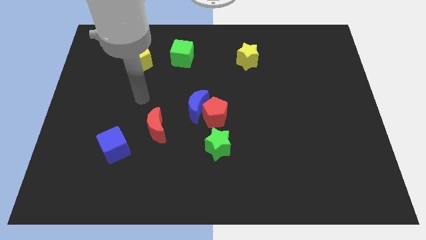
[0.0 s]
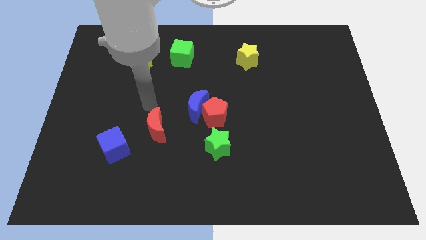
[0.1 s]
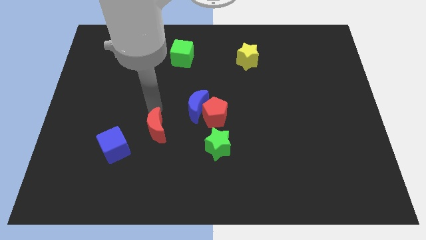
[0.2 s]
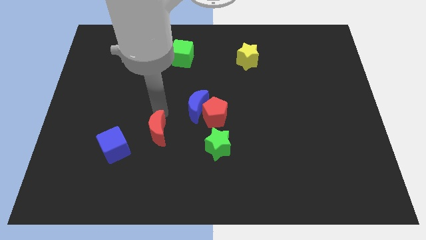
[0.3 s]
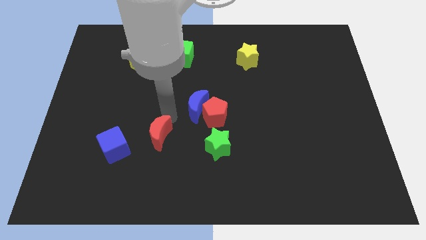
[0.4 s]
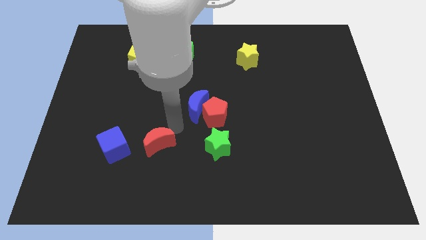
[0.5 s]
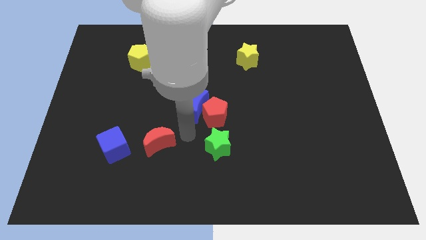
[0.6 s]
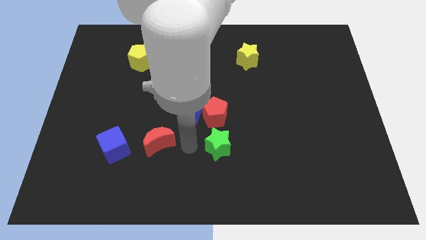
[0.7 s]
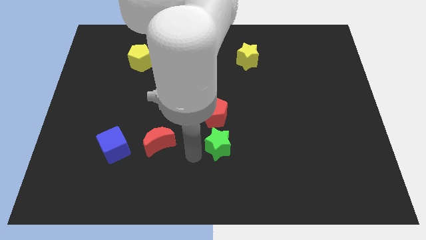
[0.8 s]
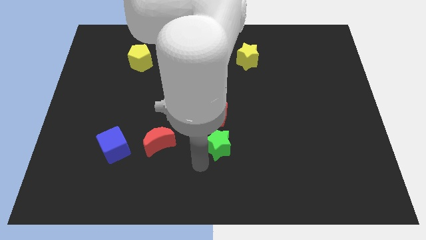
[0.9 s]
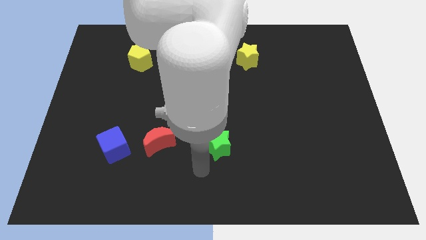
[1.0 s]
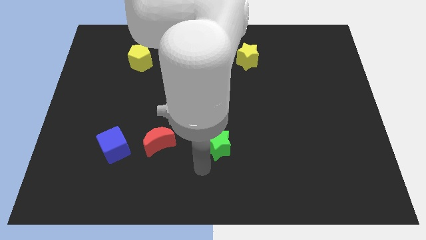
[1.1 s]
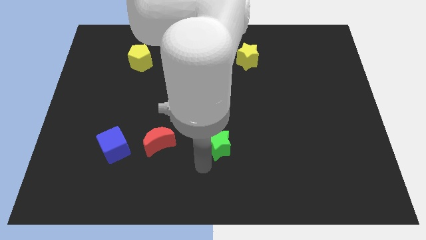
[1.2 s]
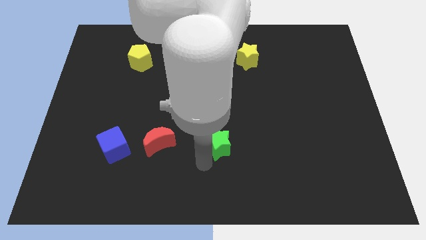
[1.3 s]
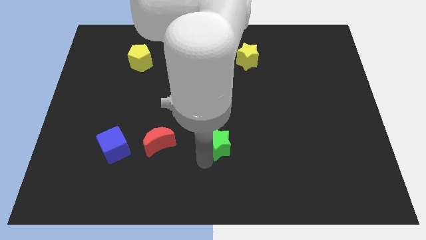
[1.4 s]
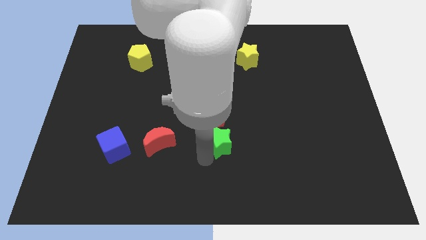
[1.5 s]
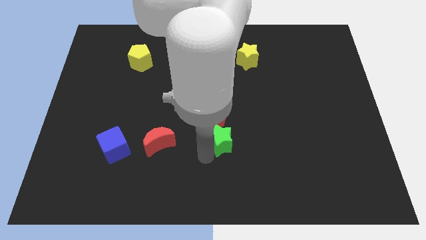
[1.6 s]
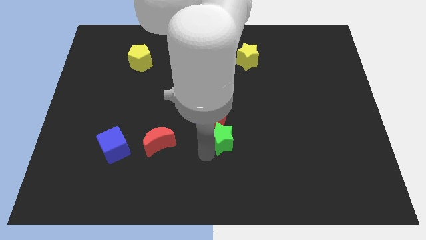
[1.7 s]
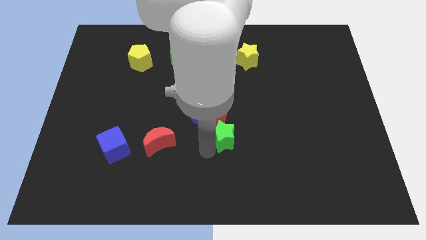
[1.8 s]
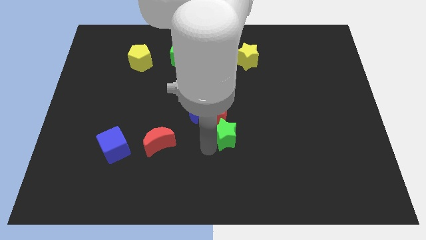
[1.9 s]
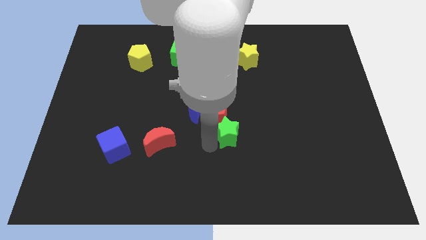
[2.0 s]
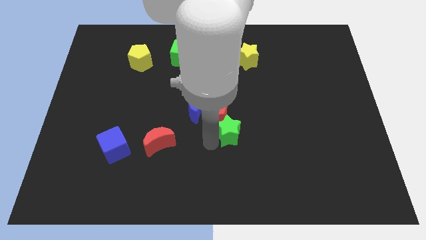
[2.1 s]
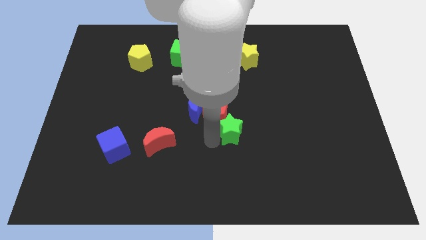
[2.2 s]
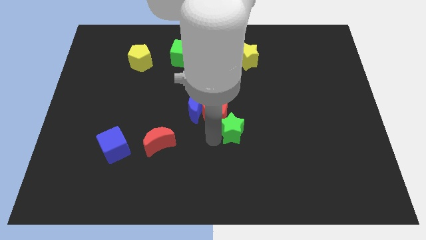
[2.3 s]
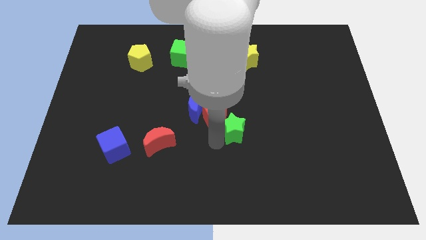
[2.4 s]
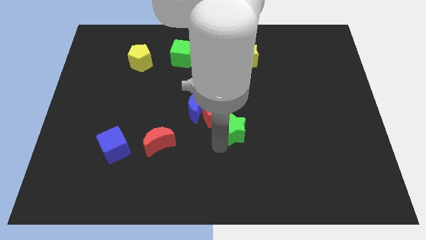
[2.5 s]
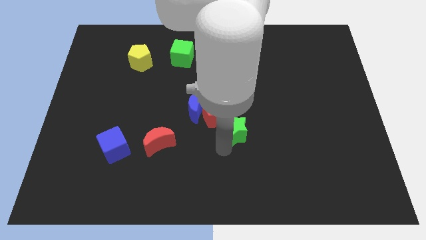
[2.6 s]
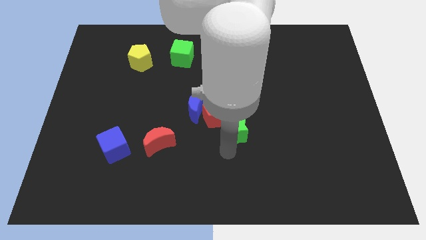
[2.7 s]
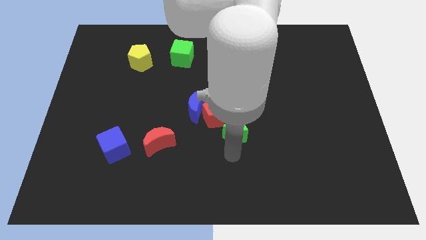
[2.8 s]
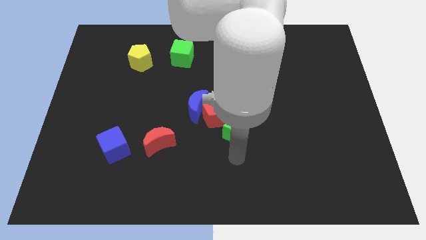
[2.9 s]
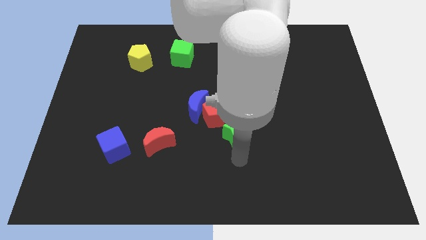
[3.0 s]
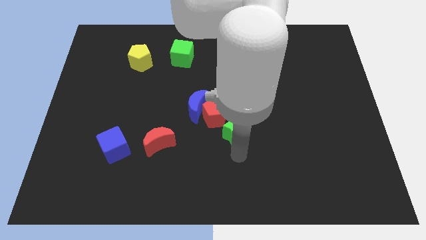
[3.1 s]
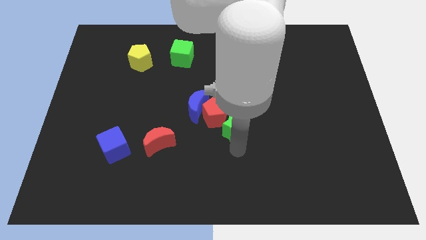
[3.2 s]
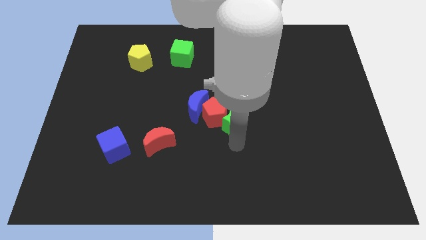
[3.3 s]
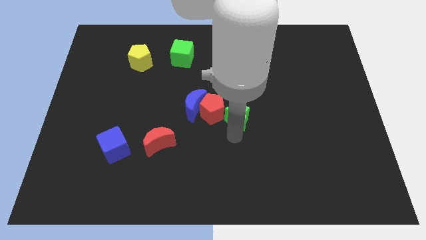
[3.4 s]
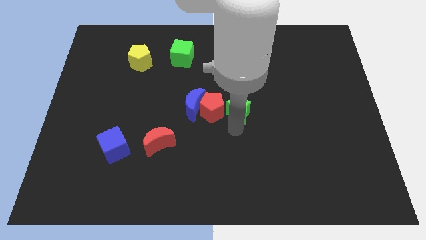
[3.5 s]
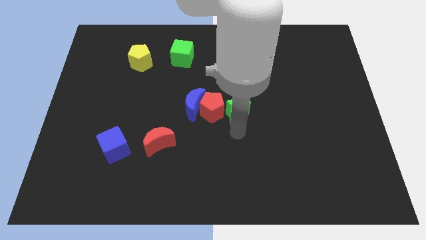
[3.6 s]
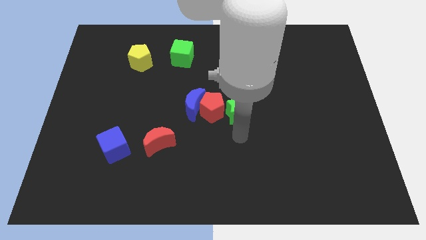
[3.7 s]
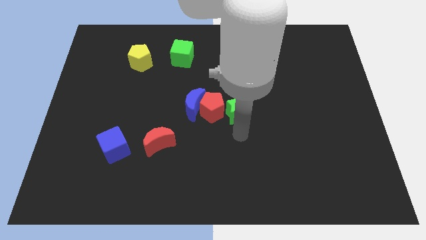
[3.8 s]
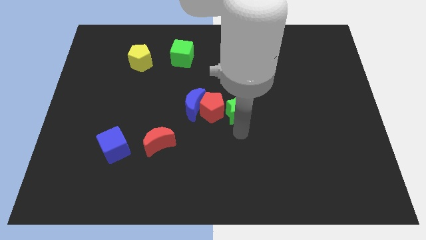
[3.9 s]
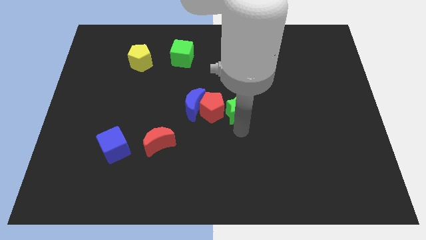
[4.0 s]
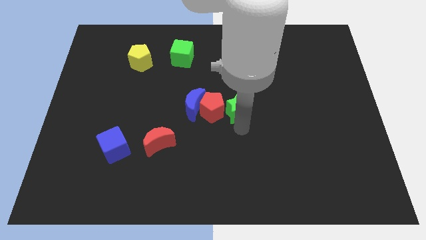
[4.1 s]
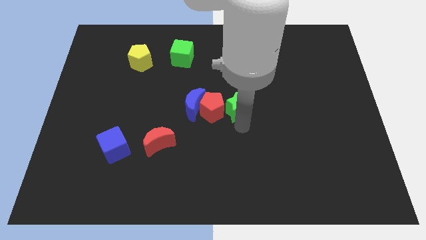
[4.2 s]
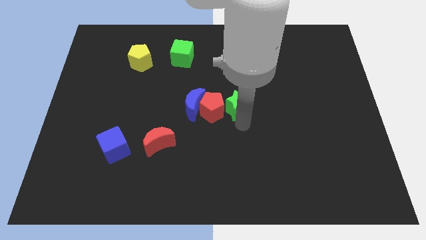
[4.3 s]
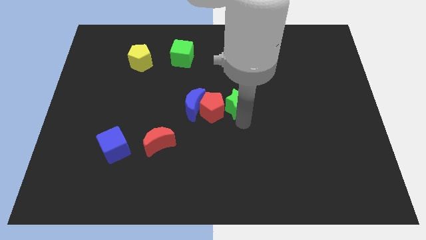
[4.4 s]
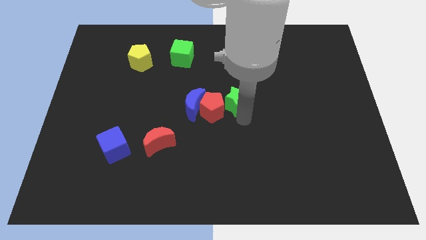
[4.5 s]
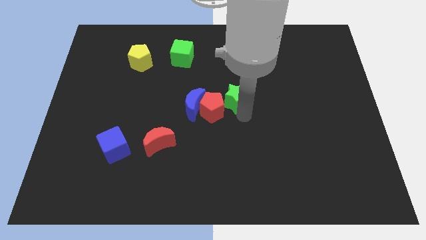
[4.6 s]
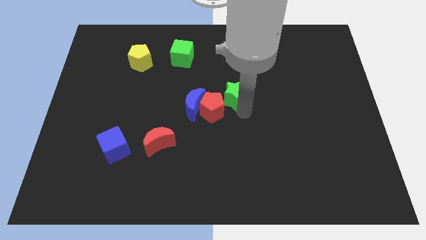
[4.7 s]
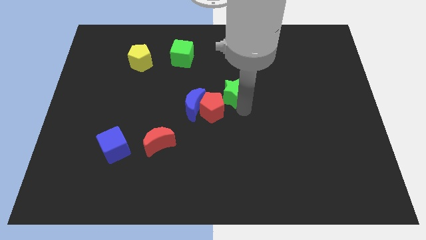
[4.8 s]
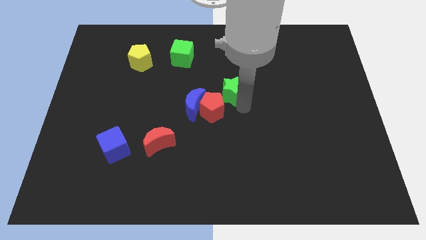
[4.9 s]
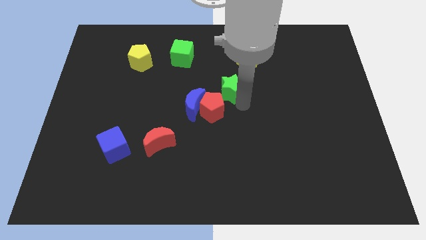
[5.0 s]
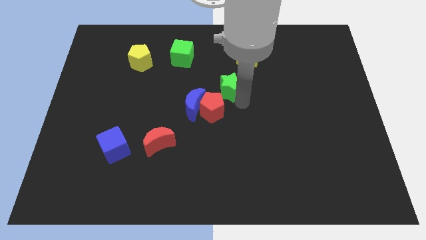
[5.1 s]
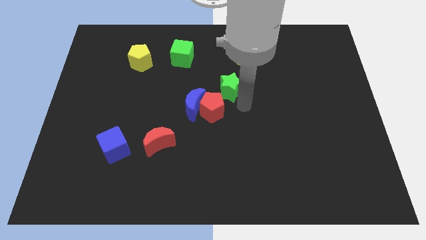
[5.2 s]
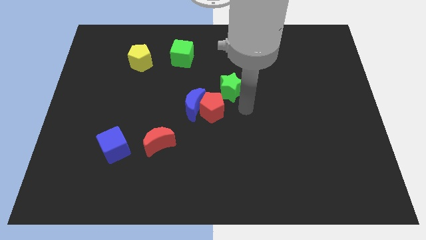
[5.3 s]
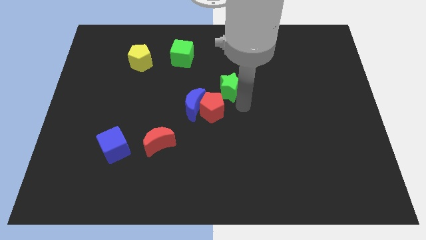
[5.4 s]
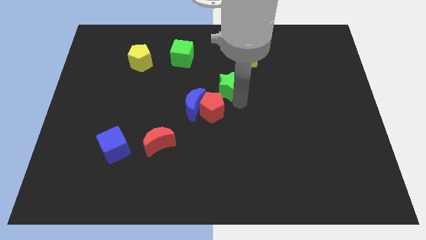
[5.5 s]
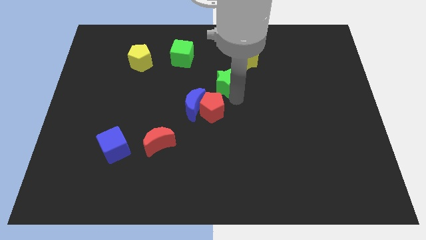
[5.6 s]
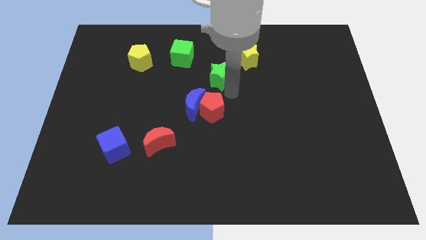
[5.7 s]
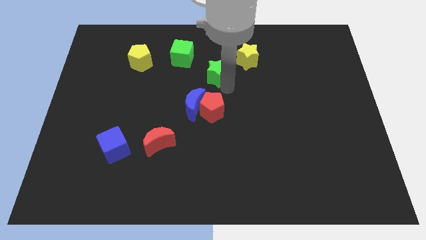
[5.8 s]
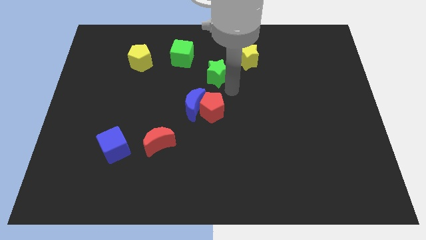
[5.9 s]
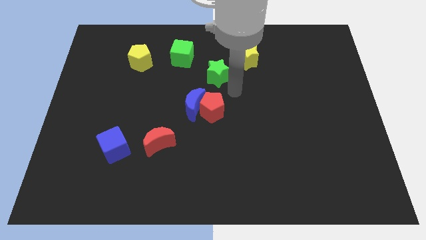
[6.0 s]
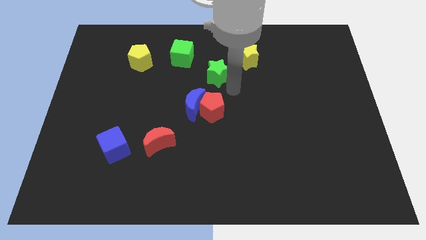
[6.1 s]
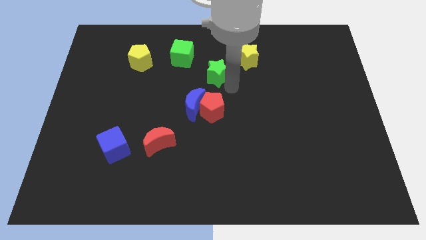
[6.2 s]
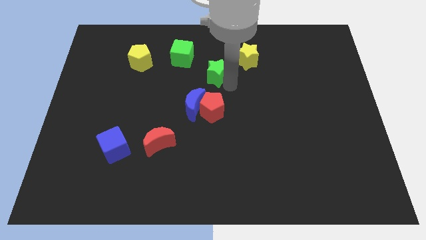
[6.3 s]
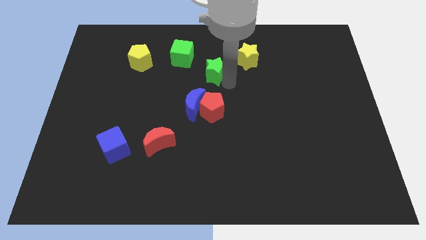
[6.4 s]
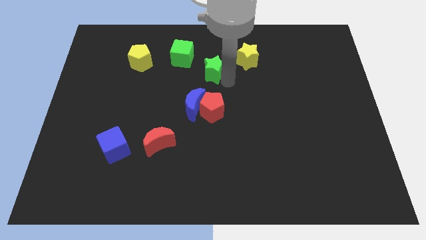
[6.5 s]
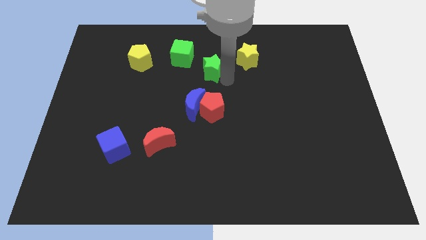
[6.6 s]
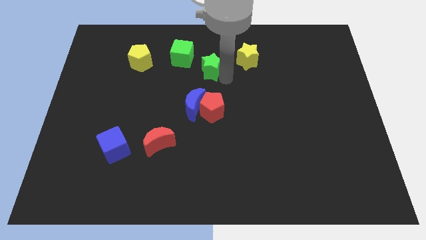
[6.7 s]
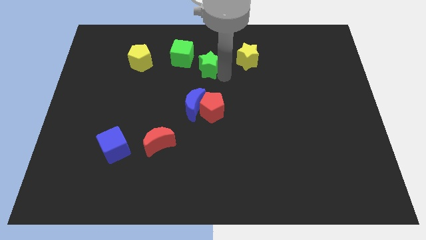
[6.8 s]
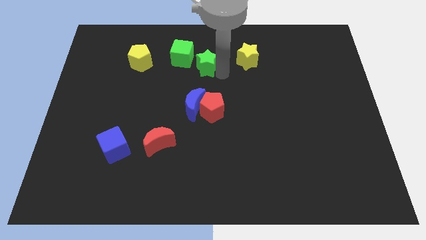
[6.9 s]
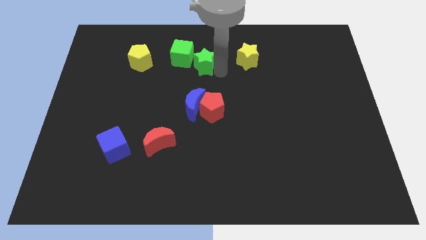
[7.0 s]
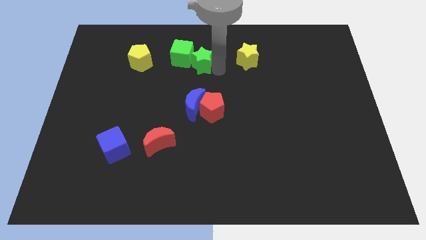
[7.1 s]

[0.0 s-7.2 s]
slide the green star right of the yellow pentagon
